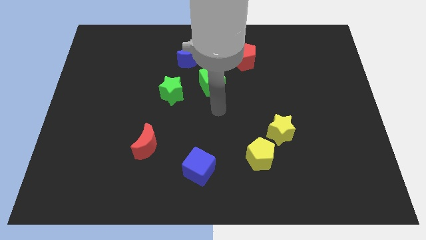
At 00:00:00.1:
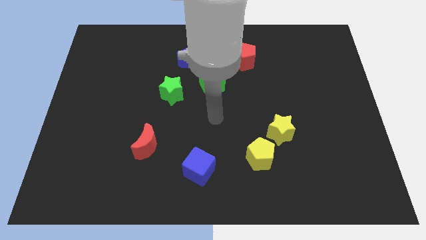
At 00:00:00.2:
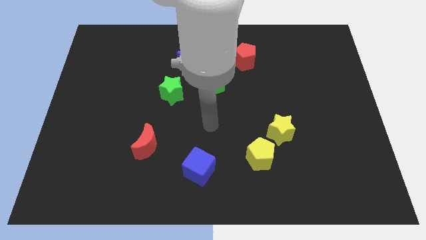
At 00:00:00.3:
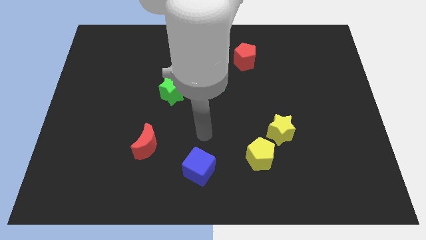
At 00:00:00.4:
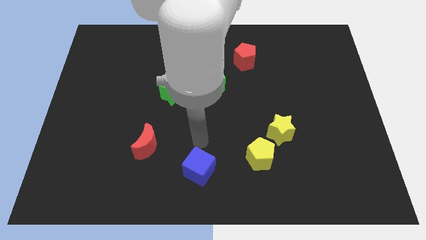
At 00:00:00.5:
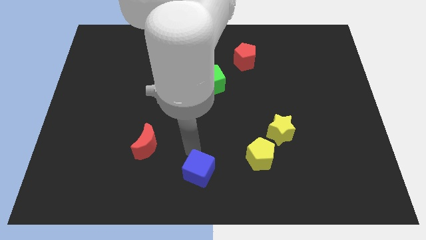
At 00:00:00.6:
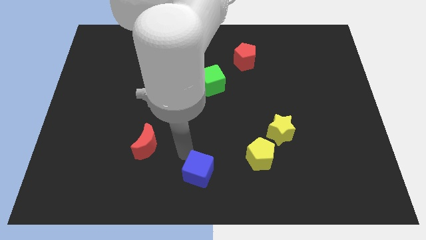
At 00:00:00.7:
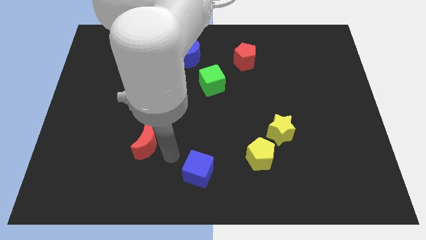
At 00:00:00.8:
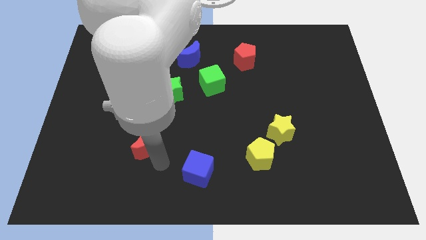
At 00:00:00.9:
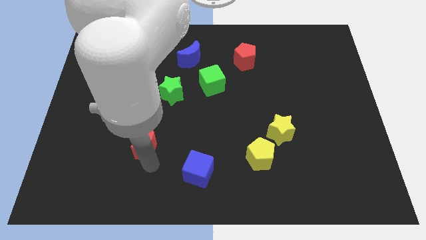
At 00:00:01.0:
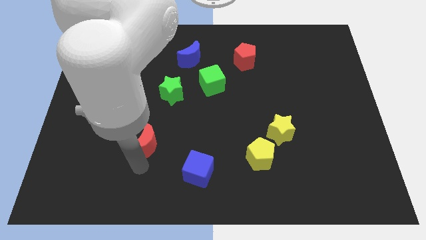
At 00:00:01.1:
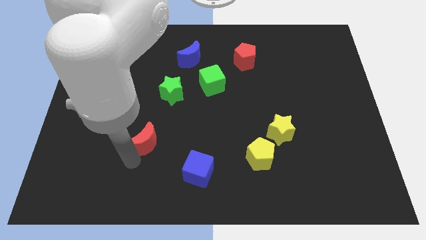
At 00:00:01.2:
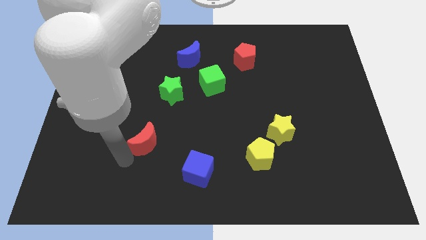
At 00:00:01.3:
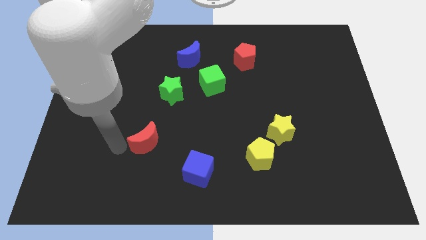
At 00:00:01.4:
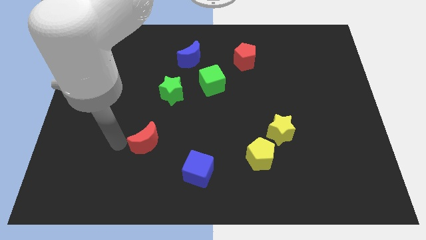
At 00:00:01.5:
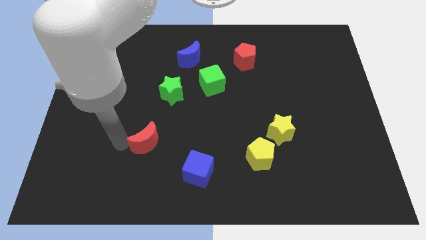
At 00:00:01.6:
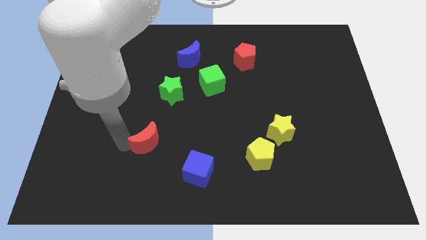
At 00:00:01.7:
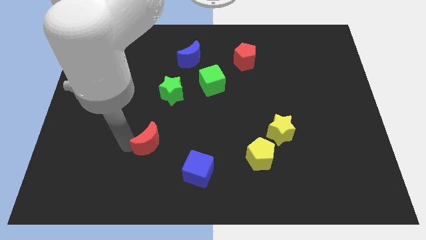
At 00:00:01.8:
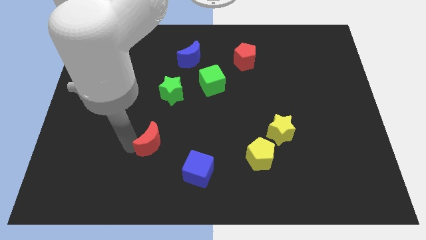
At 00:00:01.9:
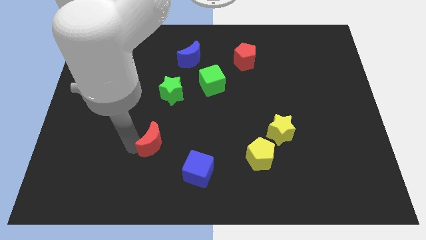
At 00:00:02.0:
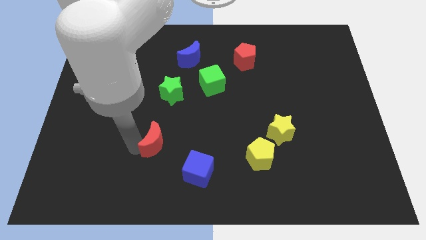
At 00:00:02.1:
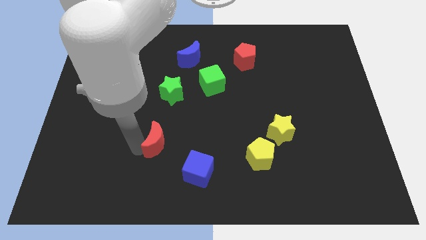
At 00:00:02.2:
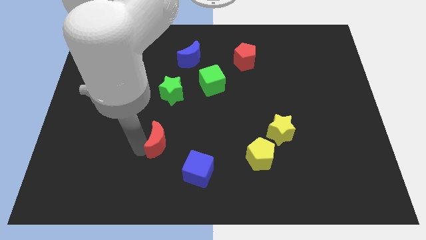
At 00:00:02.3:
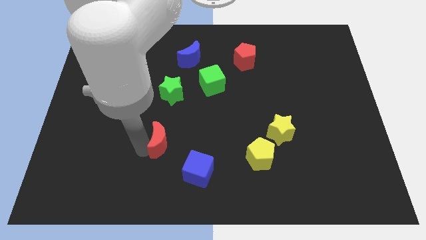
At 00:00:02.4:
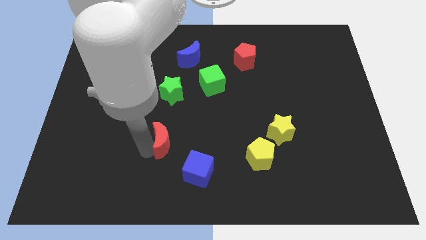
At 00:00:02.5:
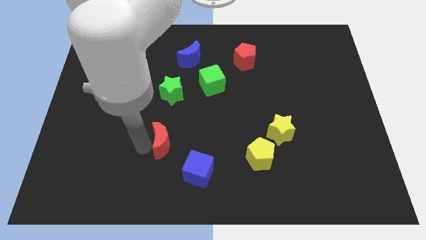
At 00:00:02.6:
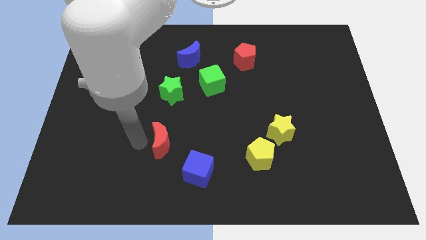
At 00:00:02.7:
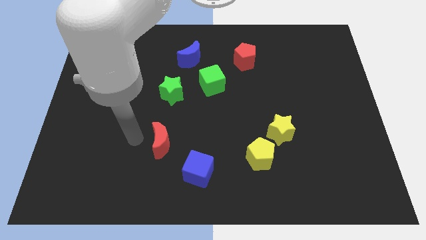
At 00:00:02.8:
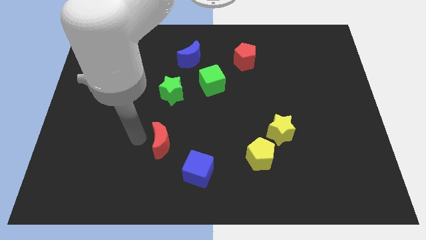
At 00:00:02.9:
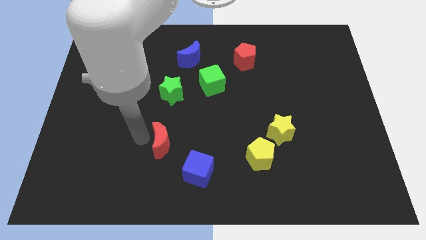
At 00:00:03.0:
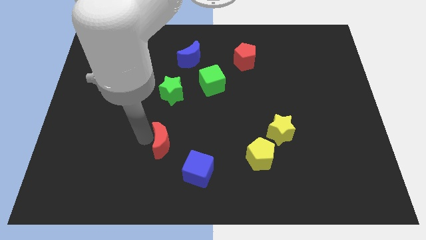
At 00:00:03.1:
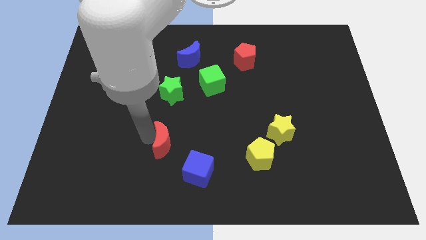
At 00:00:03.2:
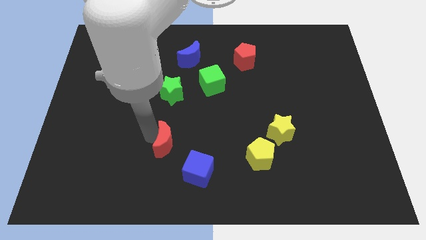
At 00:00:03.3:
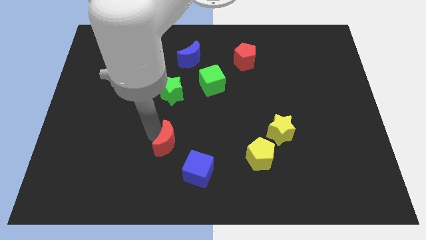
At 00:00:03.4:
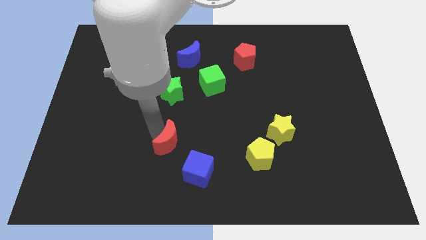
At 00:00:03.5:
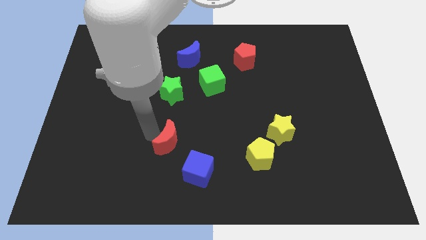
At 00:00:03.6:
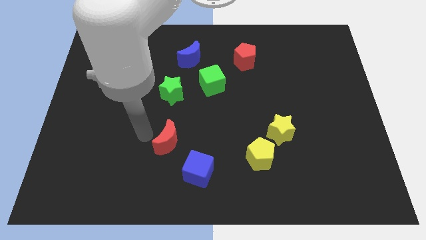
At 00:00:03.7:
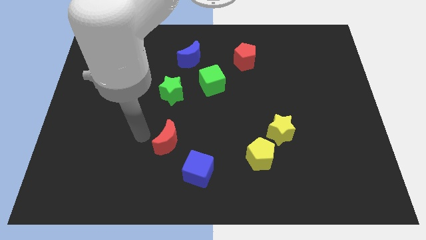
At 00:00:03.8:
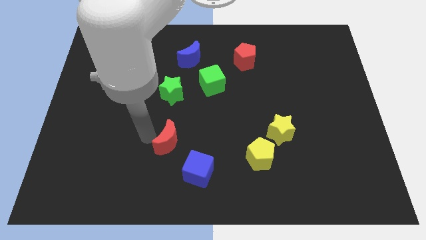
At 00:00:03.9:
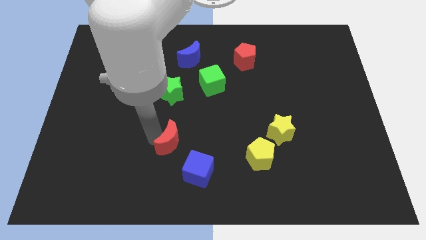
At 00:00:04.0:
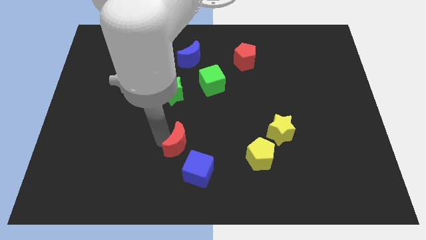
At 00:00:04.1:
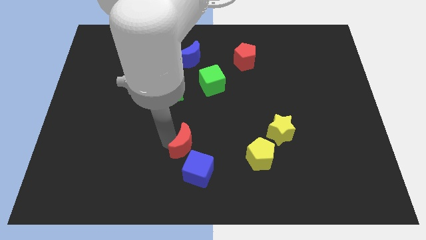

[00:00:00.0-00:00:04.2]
slide the red moon to the right a little bit

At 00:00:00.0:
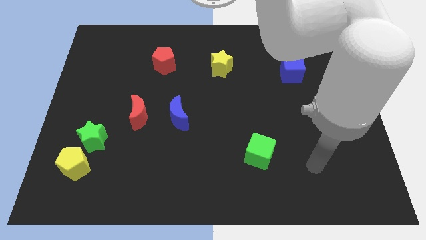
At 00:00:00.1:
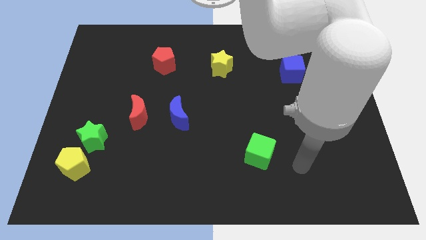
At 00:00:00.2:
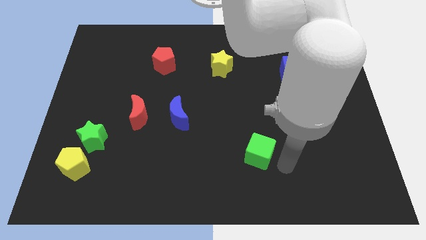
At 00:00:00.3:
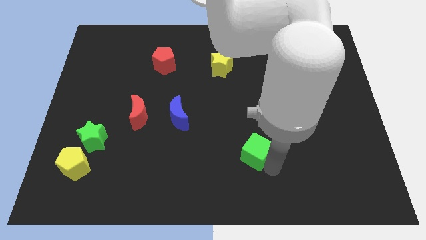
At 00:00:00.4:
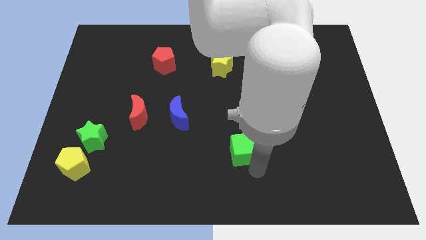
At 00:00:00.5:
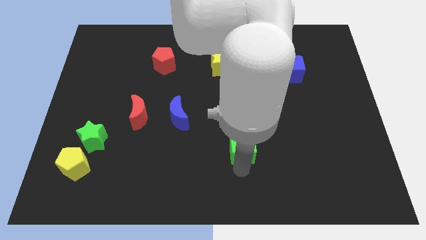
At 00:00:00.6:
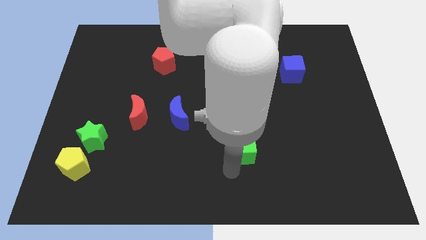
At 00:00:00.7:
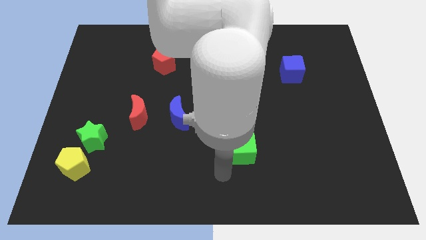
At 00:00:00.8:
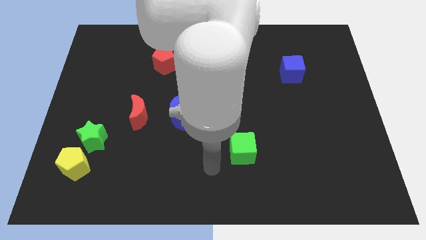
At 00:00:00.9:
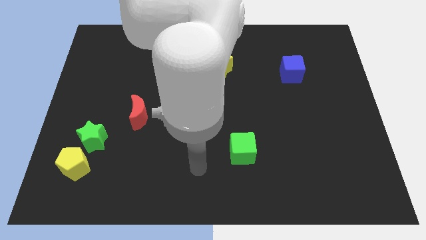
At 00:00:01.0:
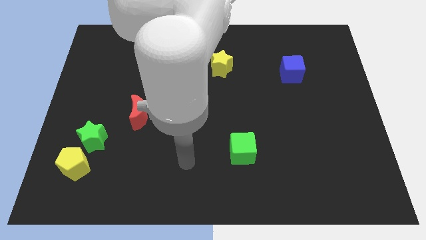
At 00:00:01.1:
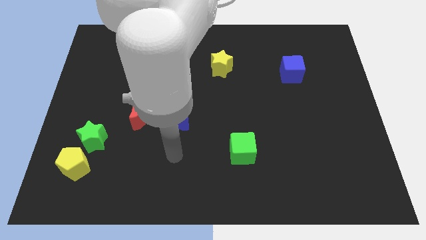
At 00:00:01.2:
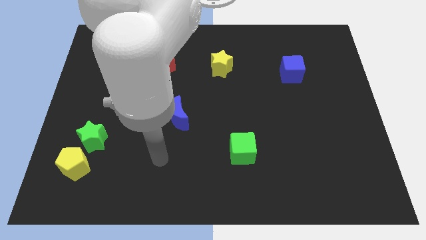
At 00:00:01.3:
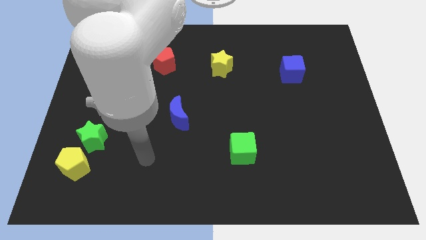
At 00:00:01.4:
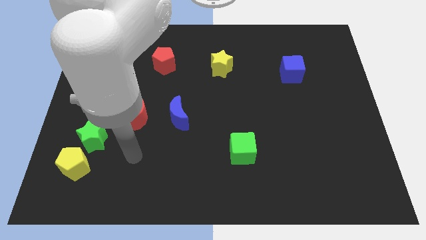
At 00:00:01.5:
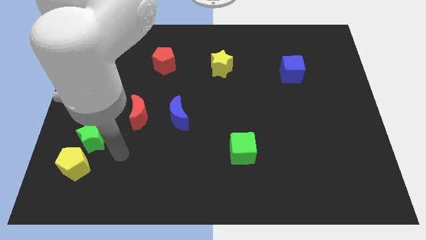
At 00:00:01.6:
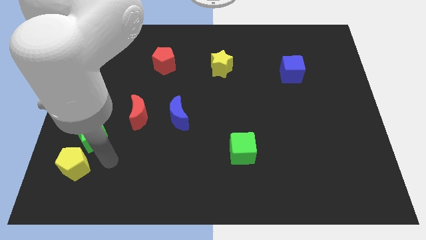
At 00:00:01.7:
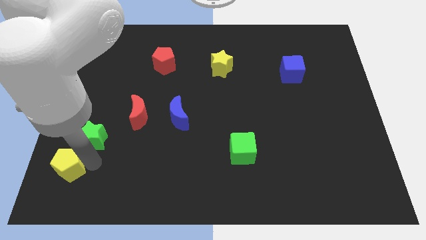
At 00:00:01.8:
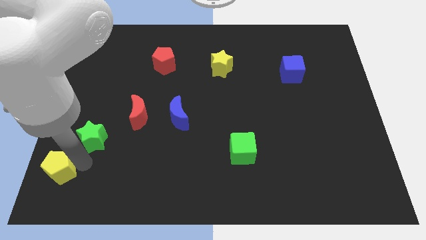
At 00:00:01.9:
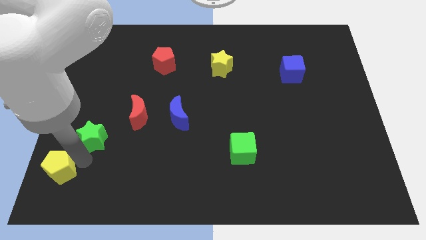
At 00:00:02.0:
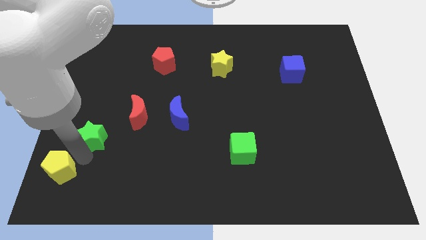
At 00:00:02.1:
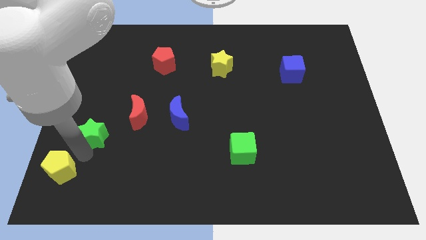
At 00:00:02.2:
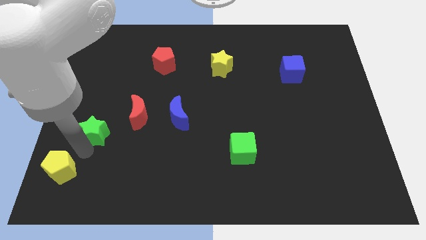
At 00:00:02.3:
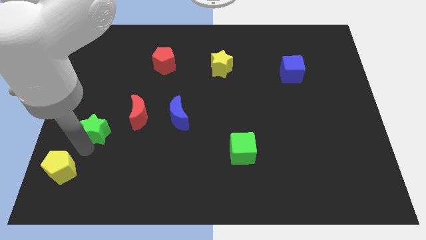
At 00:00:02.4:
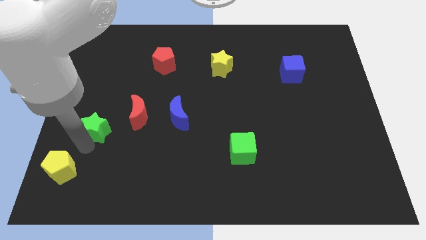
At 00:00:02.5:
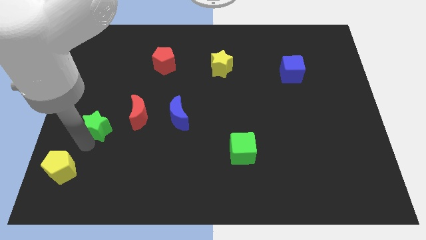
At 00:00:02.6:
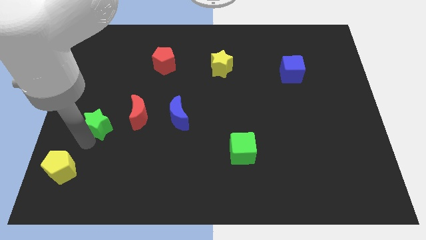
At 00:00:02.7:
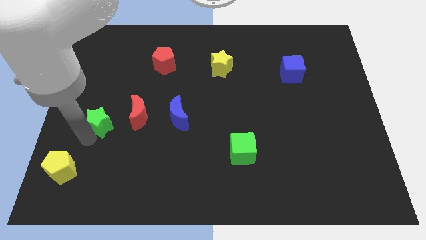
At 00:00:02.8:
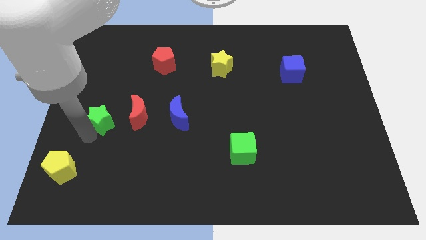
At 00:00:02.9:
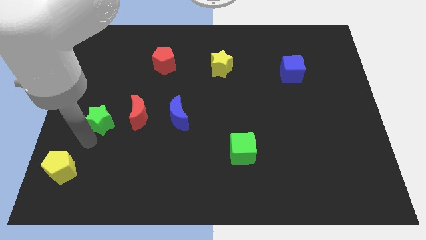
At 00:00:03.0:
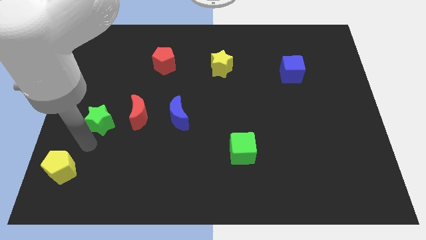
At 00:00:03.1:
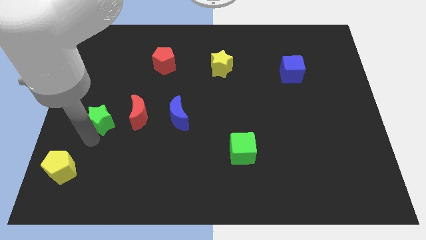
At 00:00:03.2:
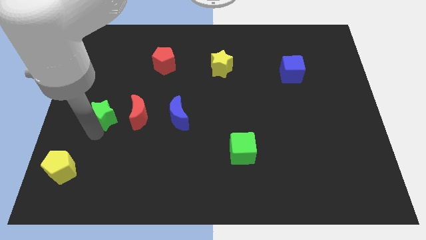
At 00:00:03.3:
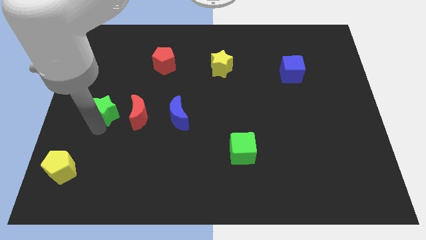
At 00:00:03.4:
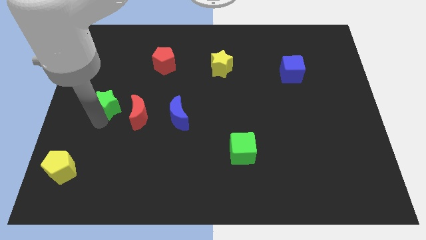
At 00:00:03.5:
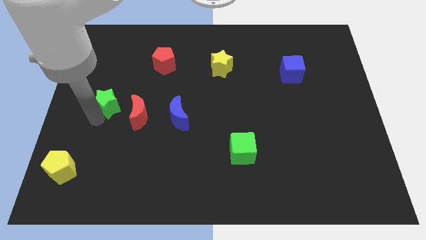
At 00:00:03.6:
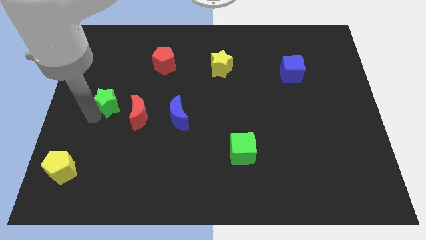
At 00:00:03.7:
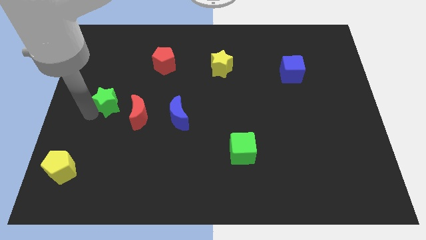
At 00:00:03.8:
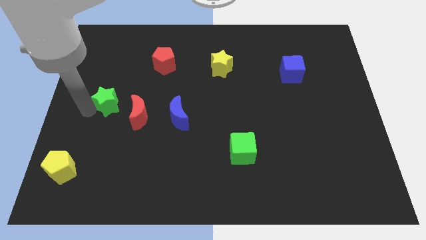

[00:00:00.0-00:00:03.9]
slightly move the green star upwards and right diagonally
